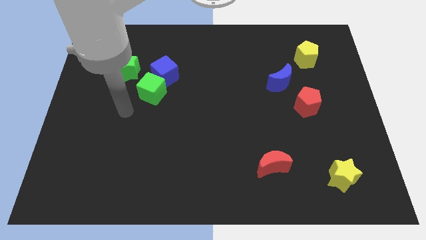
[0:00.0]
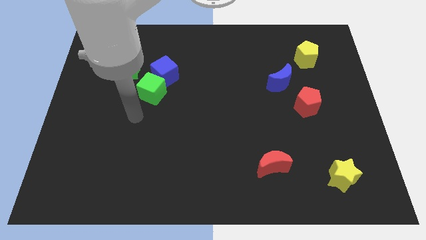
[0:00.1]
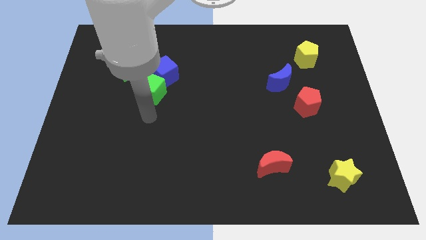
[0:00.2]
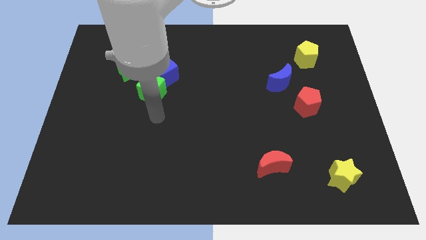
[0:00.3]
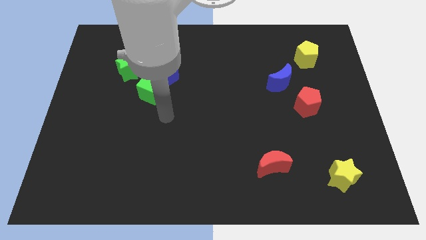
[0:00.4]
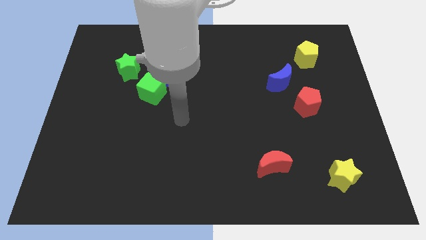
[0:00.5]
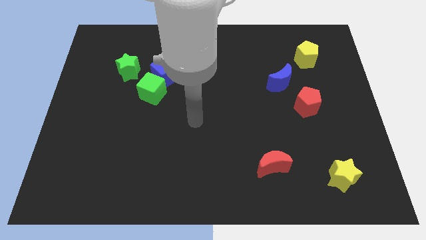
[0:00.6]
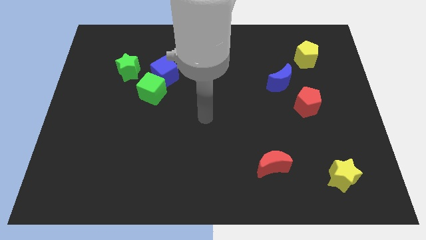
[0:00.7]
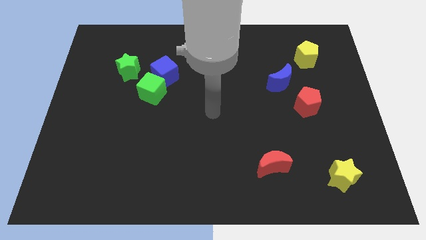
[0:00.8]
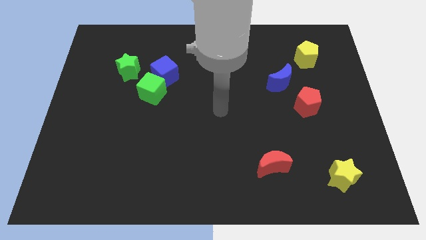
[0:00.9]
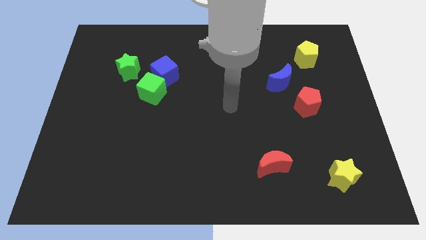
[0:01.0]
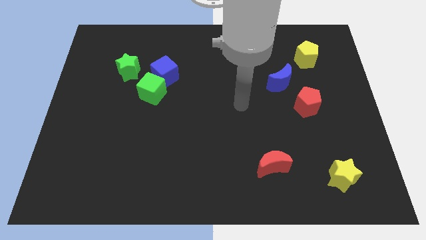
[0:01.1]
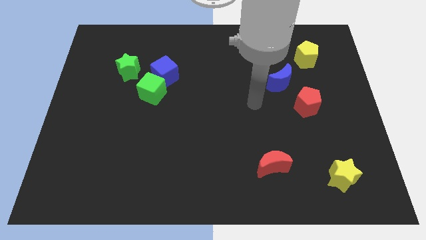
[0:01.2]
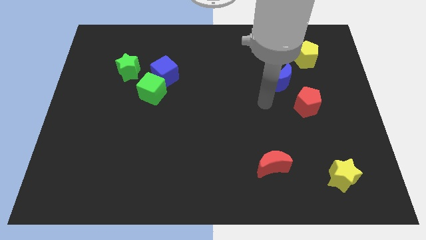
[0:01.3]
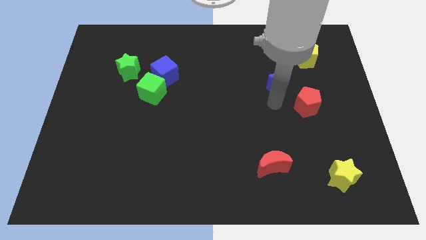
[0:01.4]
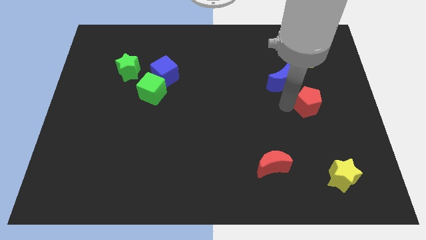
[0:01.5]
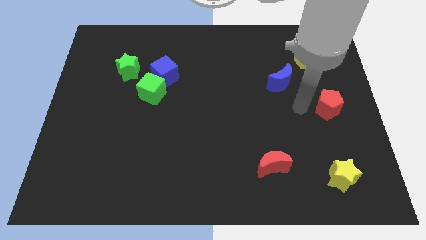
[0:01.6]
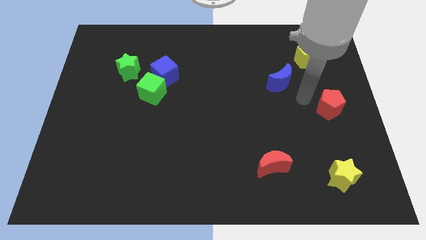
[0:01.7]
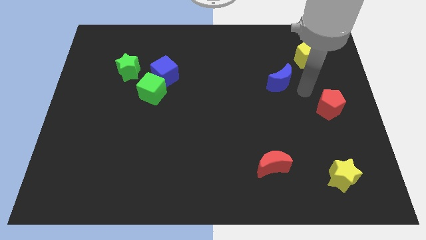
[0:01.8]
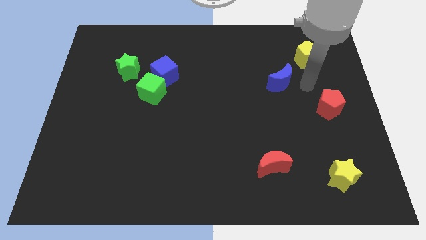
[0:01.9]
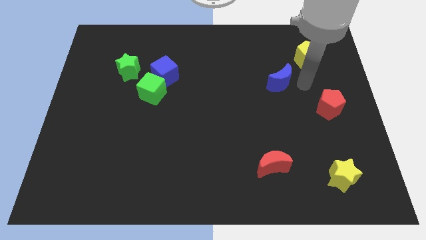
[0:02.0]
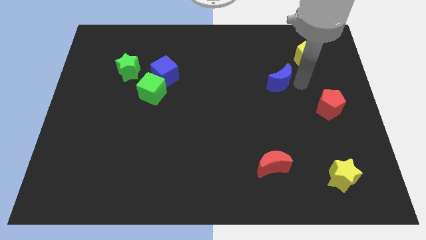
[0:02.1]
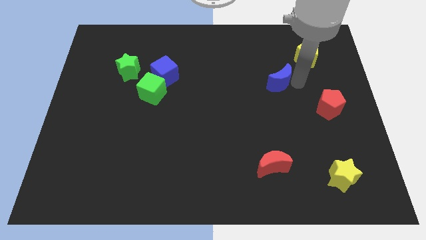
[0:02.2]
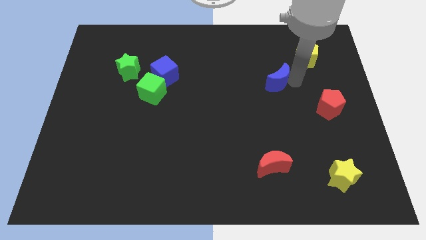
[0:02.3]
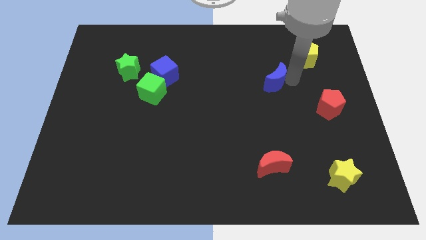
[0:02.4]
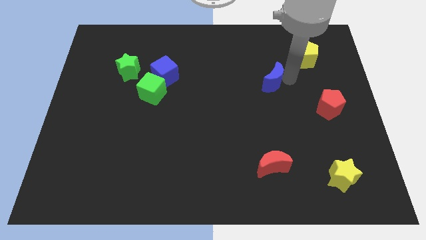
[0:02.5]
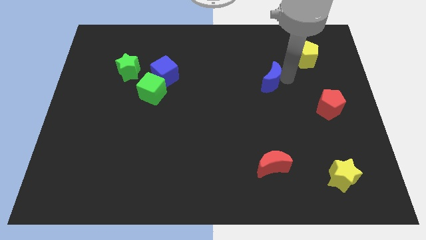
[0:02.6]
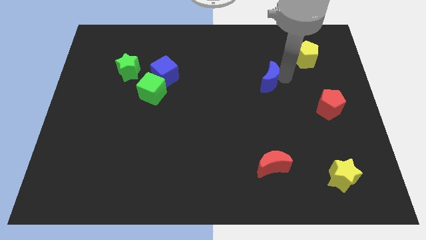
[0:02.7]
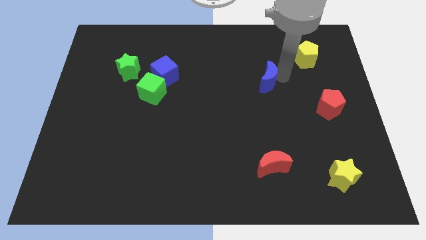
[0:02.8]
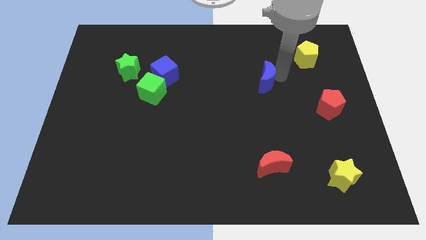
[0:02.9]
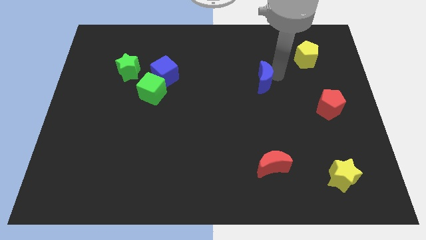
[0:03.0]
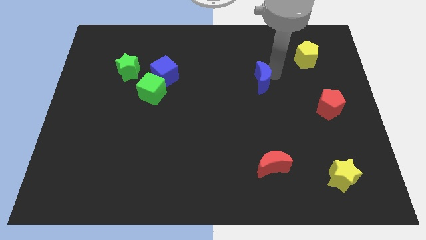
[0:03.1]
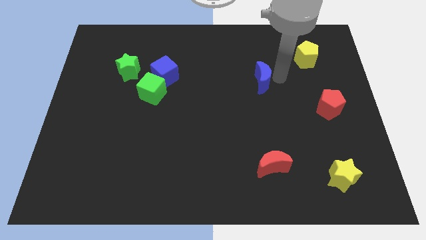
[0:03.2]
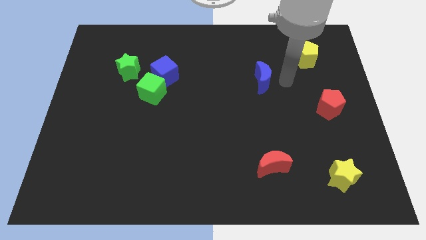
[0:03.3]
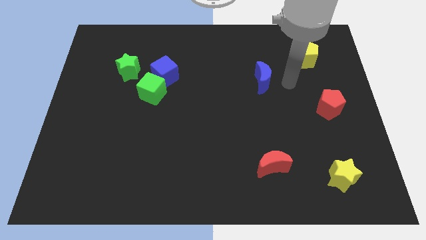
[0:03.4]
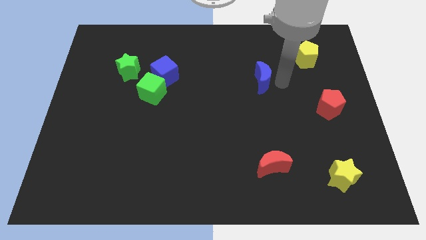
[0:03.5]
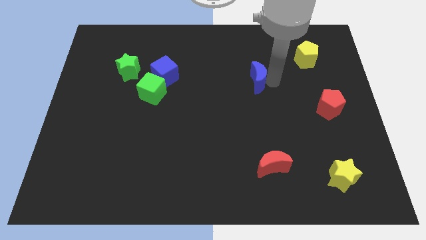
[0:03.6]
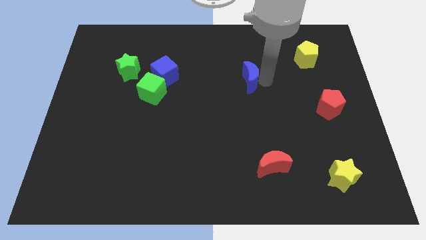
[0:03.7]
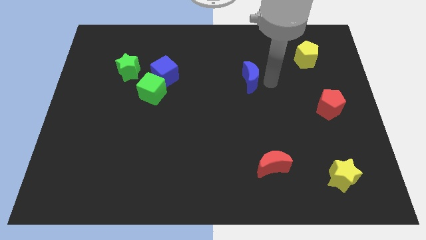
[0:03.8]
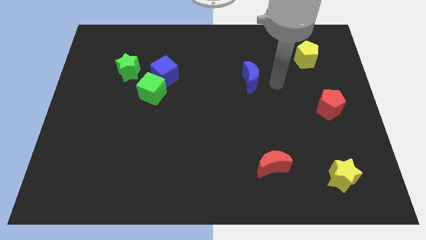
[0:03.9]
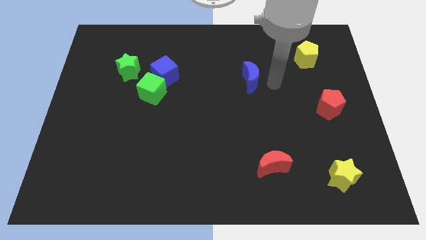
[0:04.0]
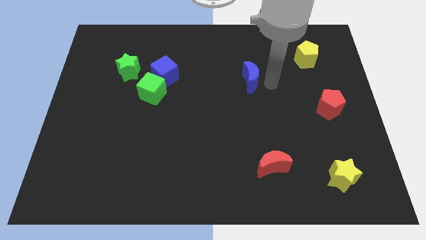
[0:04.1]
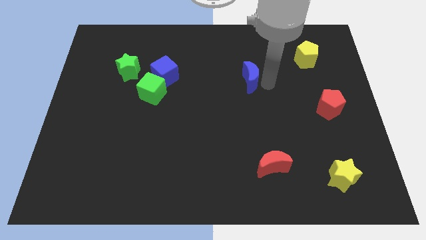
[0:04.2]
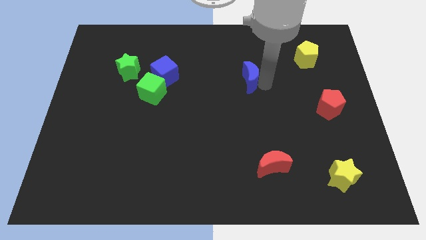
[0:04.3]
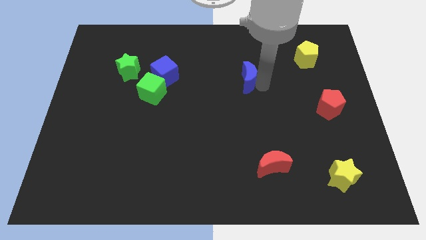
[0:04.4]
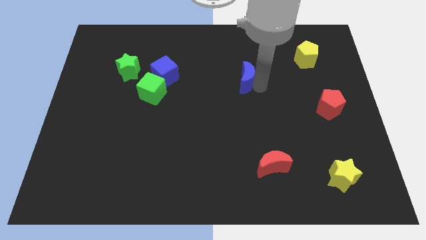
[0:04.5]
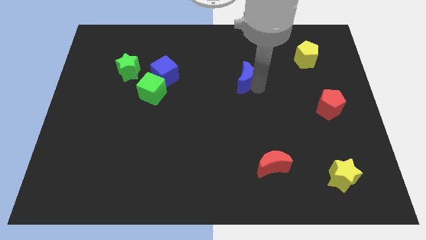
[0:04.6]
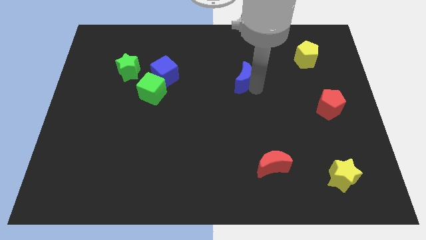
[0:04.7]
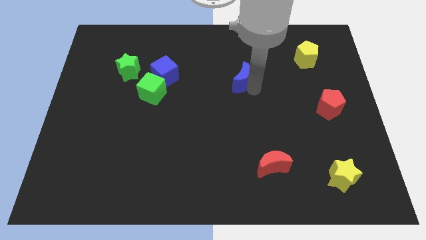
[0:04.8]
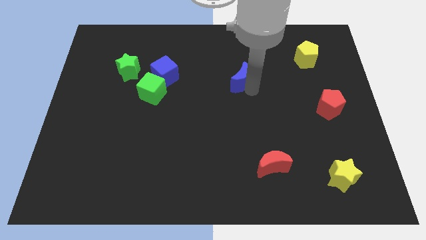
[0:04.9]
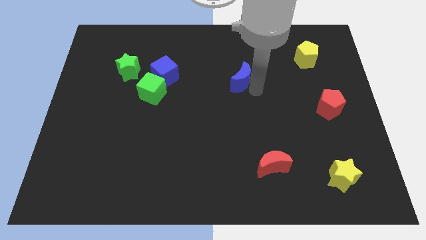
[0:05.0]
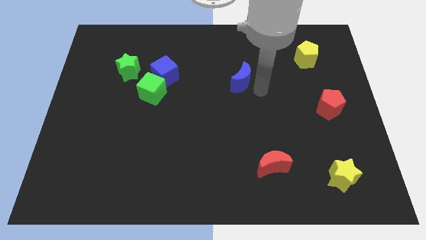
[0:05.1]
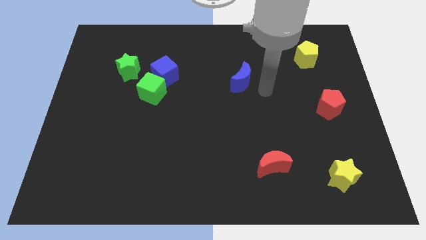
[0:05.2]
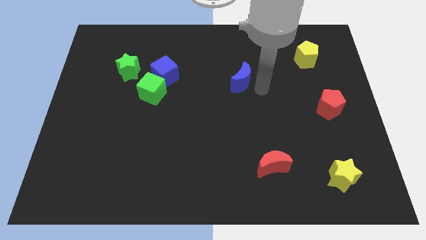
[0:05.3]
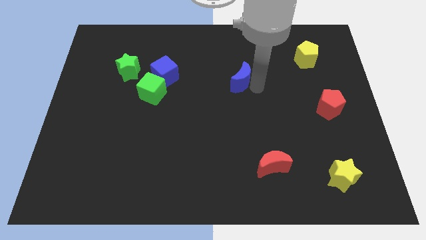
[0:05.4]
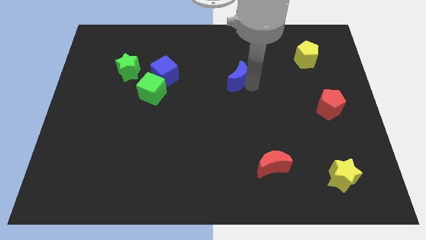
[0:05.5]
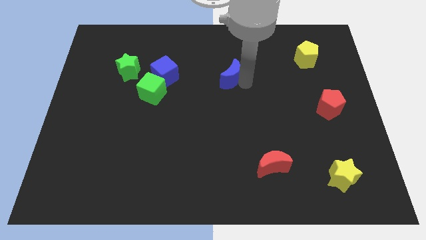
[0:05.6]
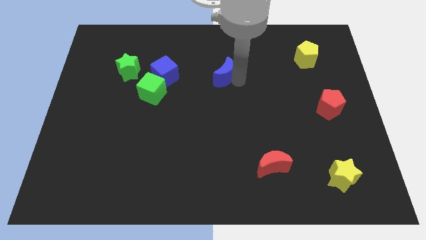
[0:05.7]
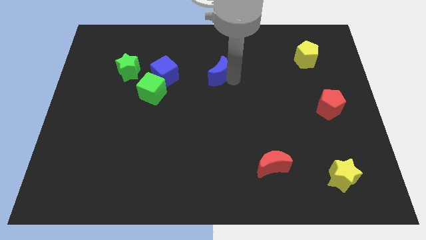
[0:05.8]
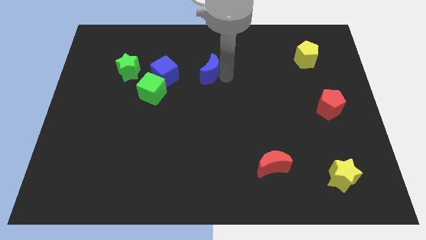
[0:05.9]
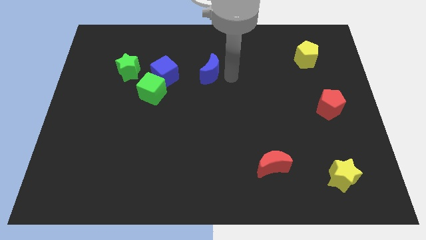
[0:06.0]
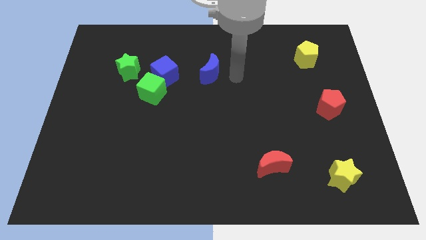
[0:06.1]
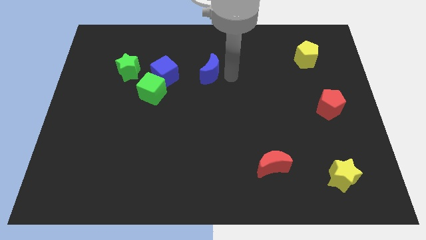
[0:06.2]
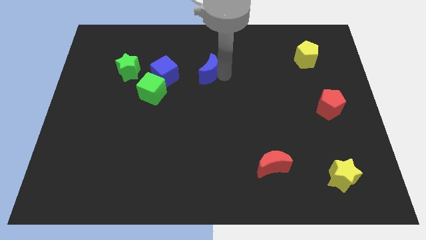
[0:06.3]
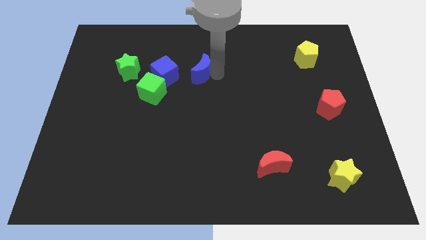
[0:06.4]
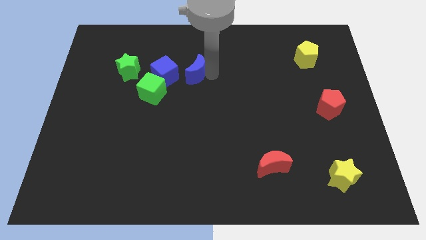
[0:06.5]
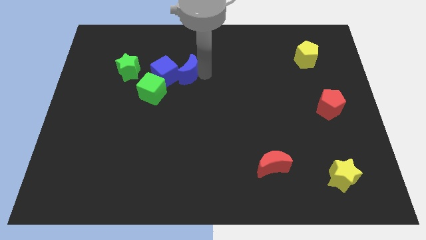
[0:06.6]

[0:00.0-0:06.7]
slide the blue moon to the right of the green star

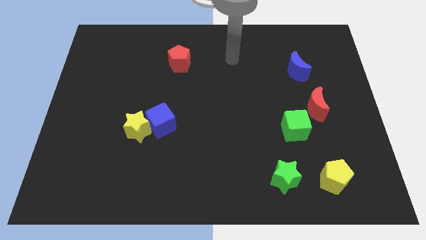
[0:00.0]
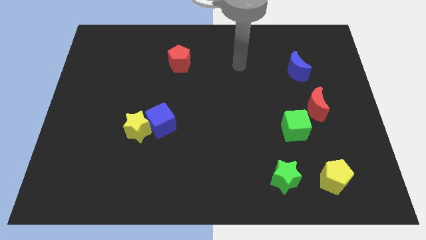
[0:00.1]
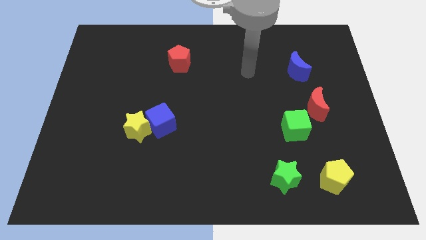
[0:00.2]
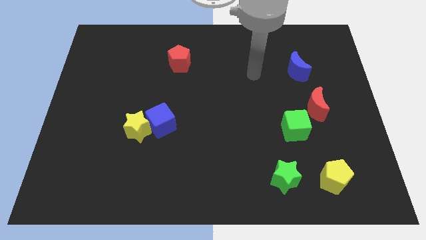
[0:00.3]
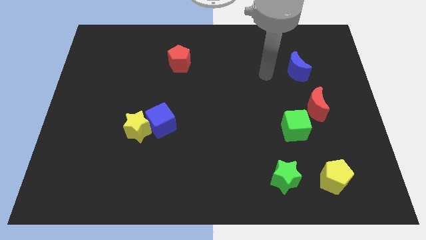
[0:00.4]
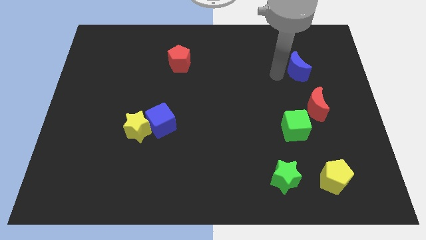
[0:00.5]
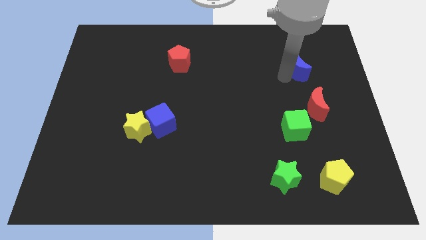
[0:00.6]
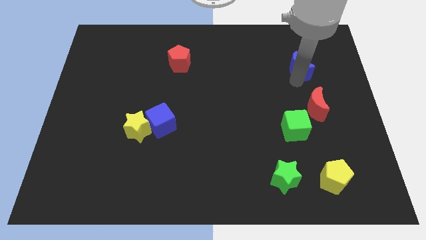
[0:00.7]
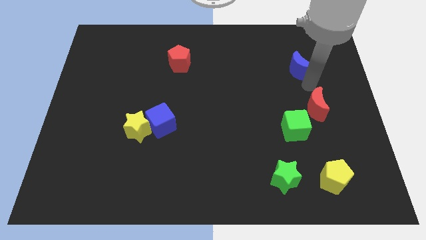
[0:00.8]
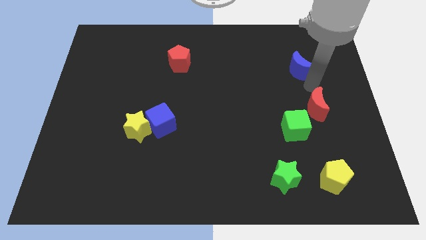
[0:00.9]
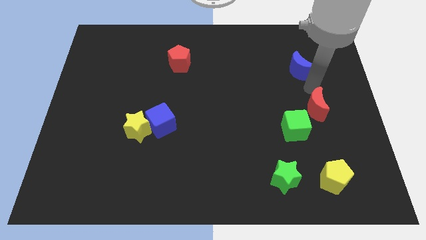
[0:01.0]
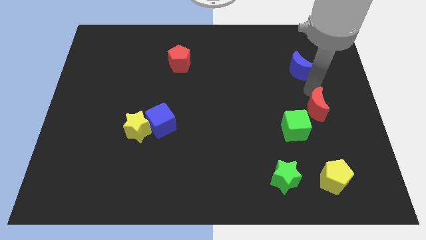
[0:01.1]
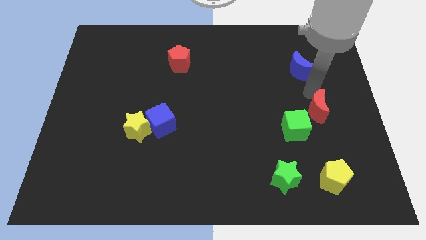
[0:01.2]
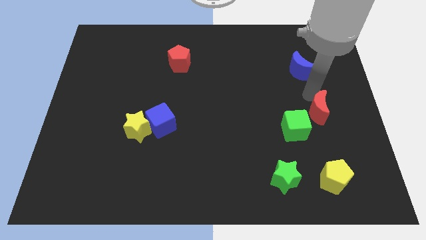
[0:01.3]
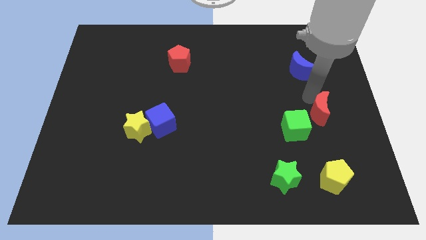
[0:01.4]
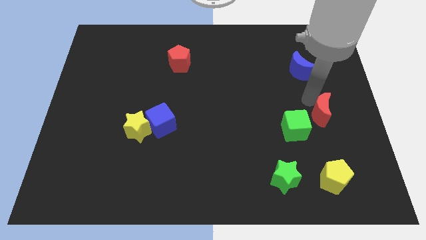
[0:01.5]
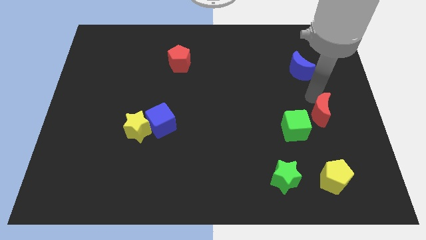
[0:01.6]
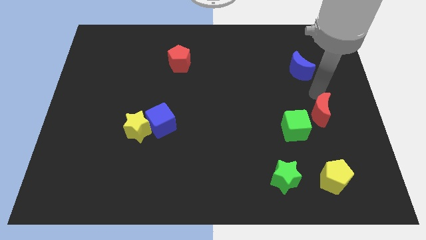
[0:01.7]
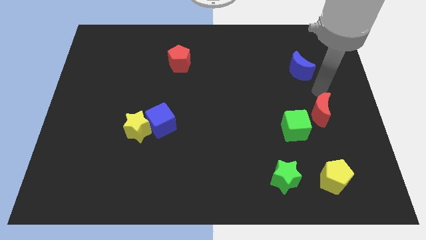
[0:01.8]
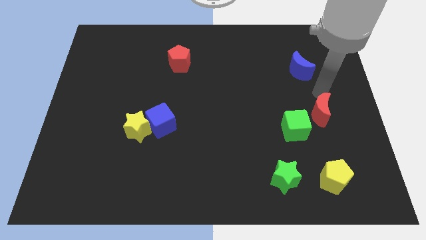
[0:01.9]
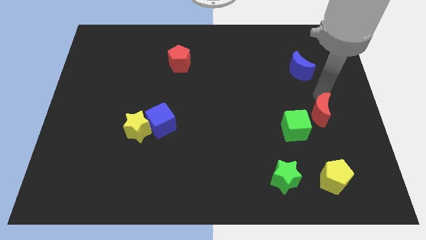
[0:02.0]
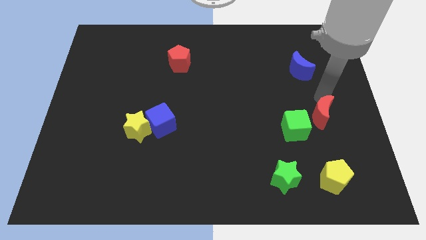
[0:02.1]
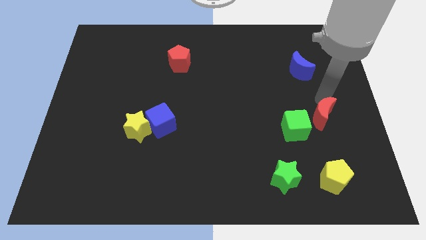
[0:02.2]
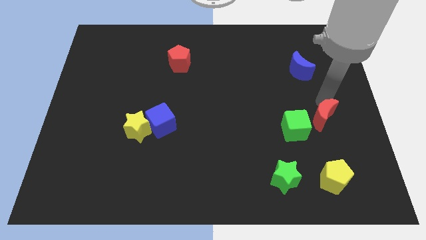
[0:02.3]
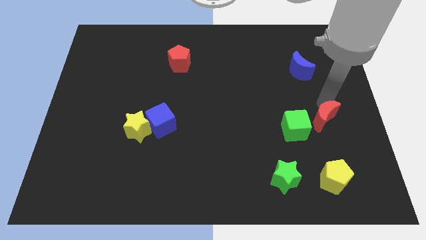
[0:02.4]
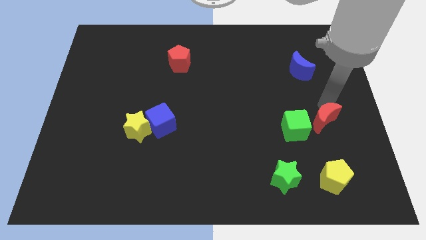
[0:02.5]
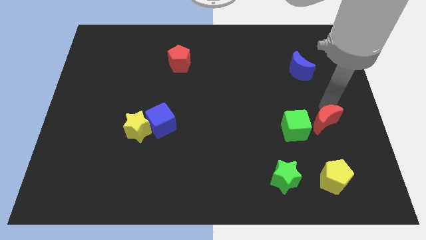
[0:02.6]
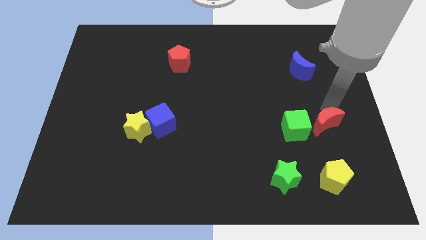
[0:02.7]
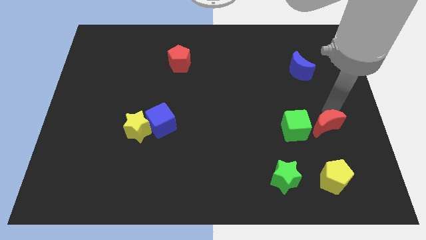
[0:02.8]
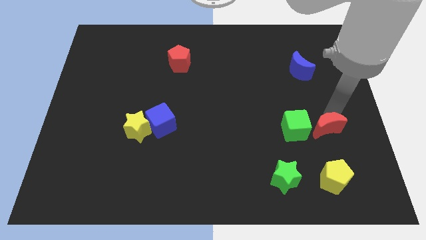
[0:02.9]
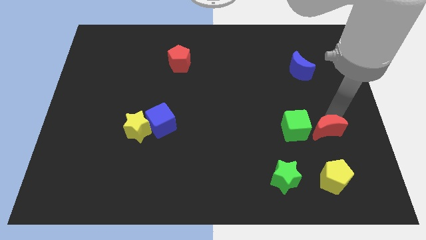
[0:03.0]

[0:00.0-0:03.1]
move the red moon to the bottom right side of the green cube
